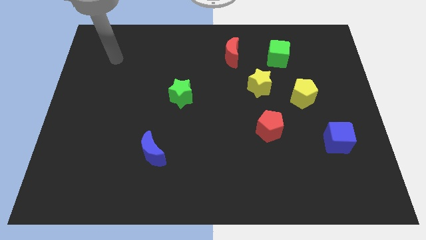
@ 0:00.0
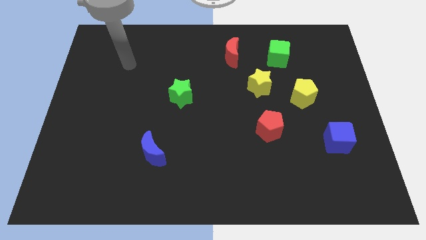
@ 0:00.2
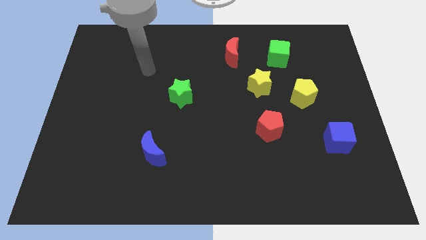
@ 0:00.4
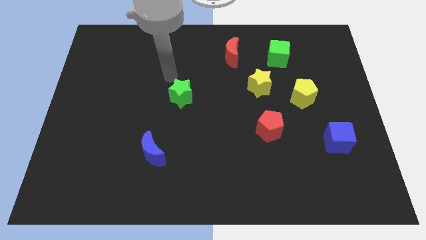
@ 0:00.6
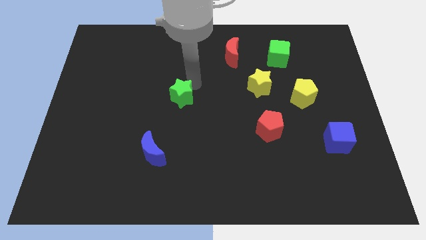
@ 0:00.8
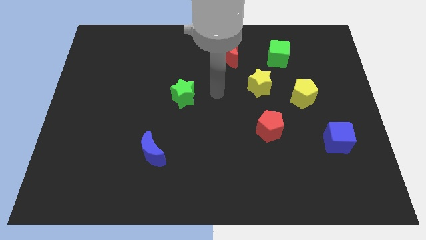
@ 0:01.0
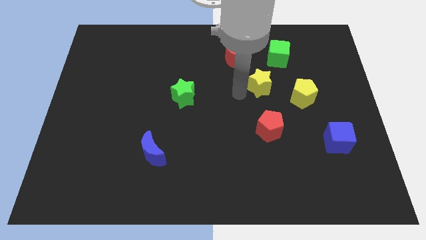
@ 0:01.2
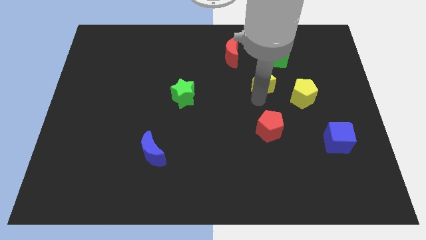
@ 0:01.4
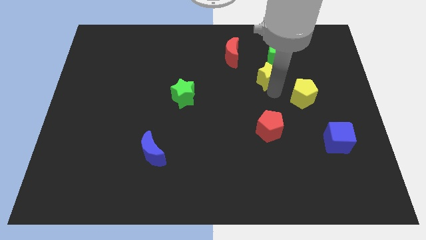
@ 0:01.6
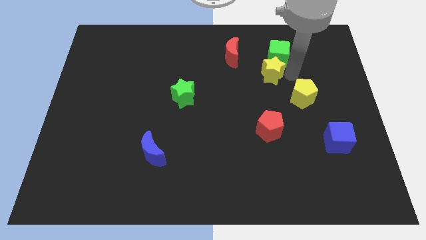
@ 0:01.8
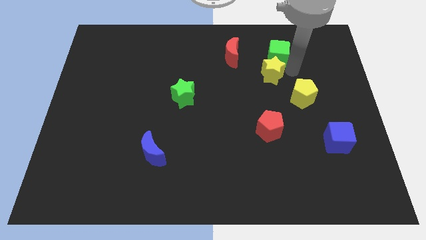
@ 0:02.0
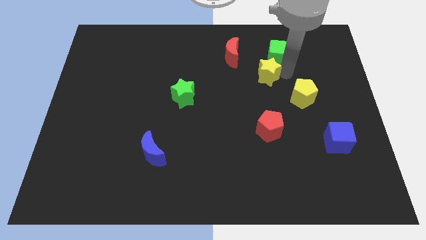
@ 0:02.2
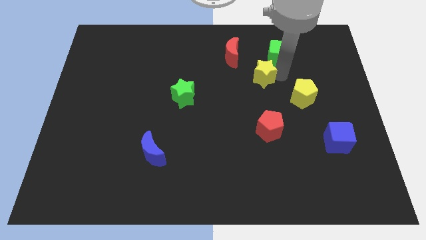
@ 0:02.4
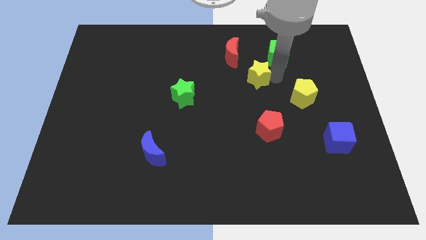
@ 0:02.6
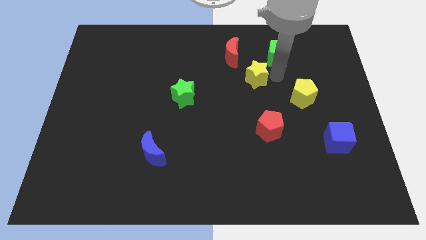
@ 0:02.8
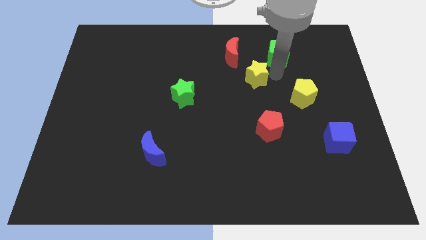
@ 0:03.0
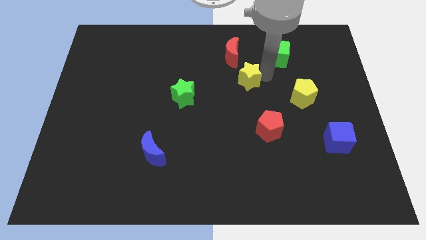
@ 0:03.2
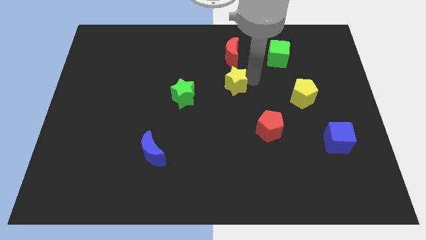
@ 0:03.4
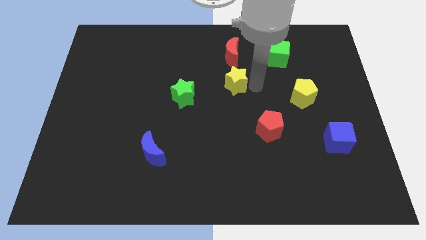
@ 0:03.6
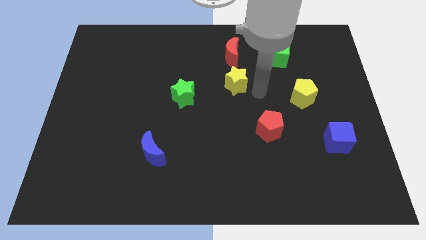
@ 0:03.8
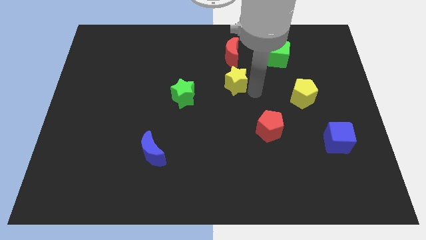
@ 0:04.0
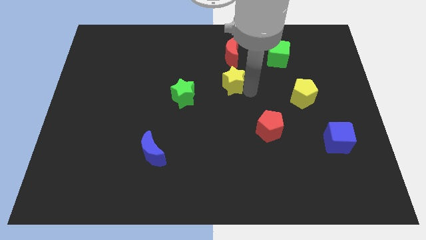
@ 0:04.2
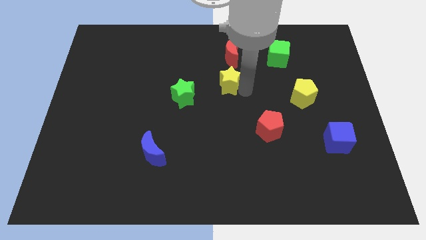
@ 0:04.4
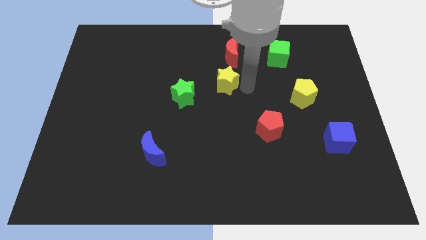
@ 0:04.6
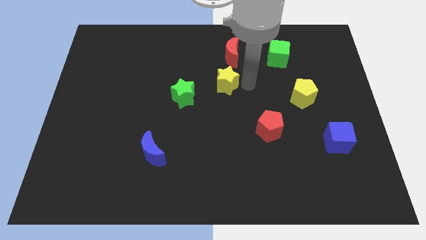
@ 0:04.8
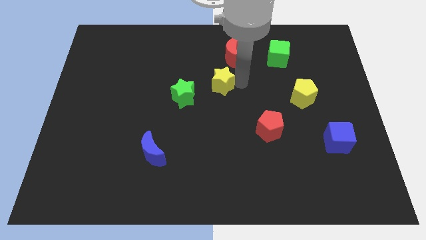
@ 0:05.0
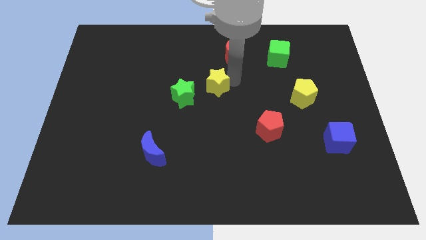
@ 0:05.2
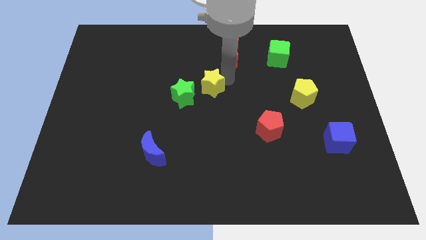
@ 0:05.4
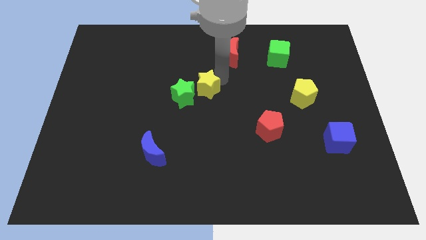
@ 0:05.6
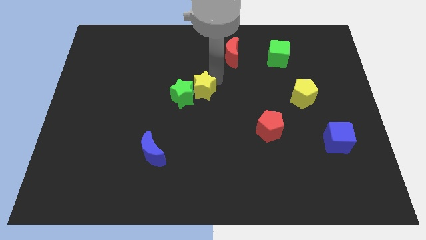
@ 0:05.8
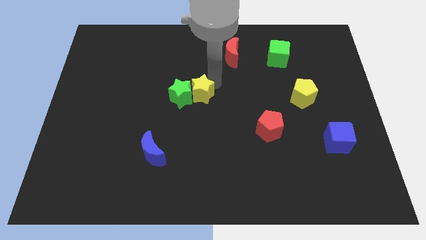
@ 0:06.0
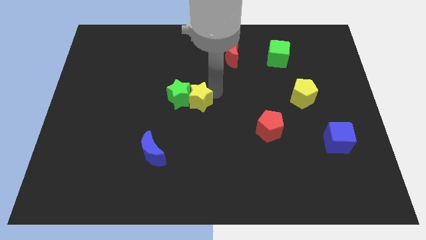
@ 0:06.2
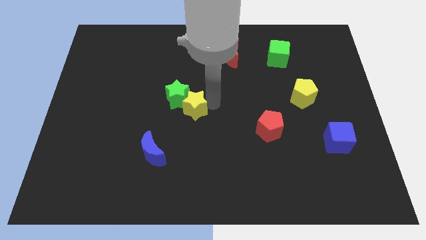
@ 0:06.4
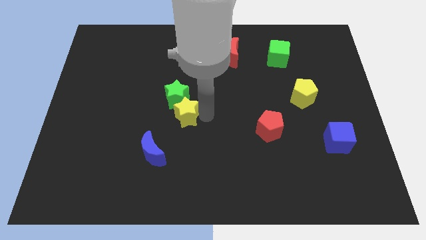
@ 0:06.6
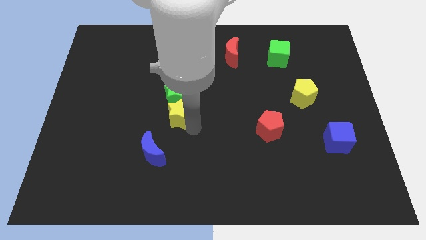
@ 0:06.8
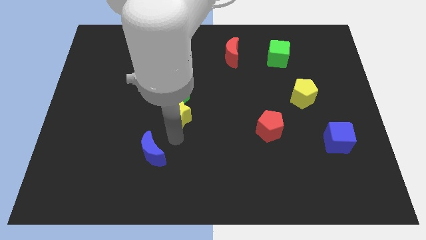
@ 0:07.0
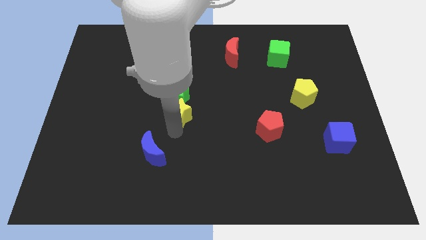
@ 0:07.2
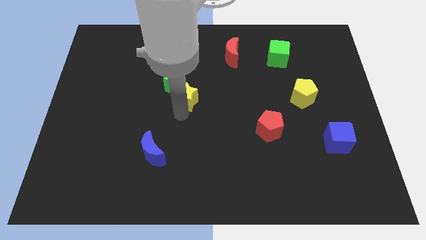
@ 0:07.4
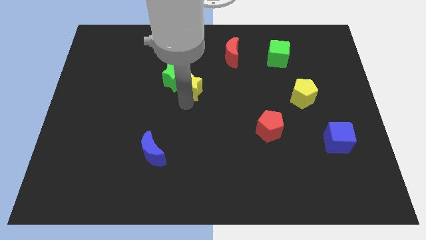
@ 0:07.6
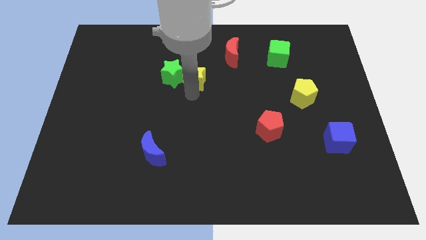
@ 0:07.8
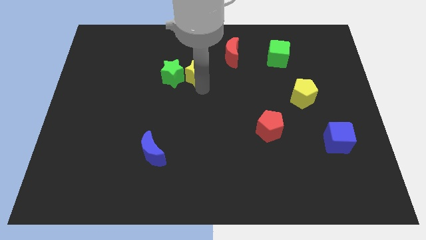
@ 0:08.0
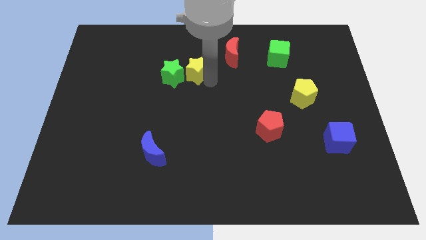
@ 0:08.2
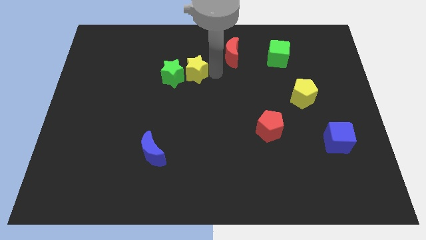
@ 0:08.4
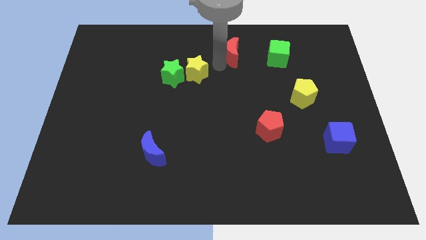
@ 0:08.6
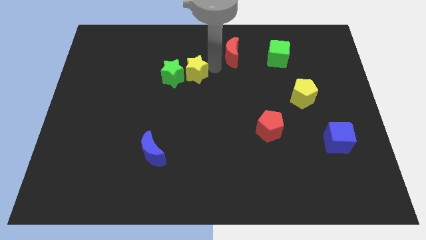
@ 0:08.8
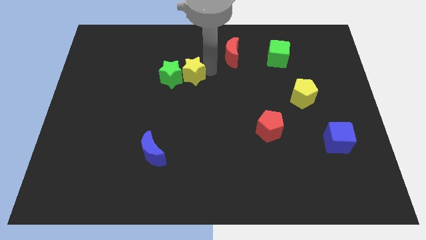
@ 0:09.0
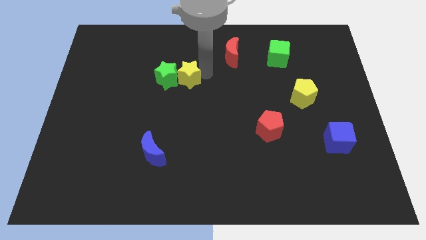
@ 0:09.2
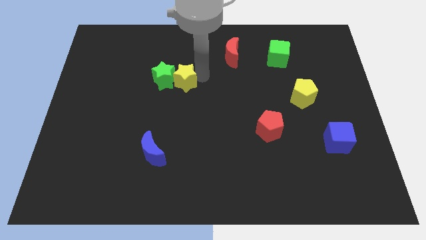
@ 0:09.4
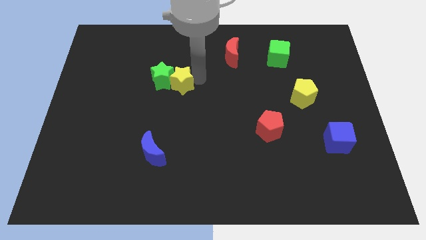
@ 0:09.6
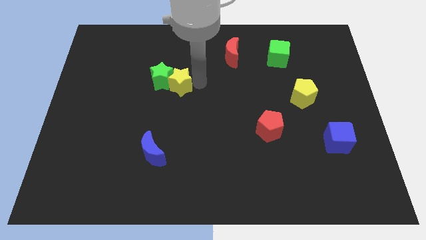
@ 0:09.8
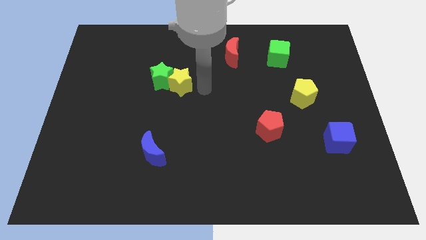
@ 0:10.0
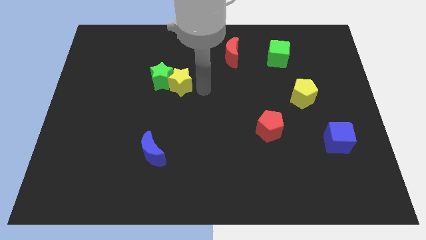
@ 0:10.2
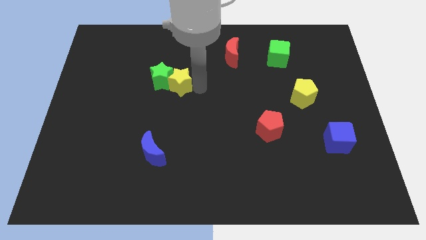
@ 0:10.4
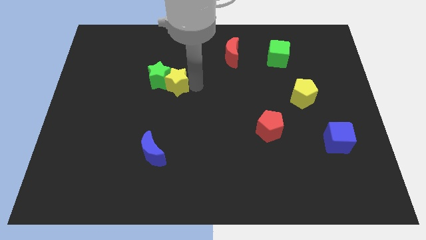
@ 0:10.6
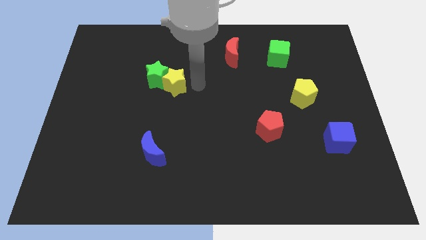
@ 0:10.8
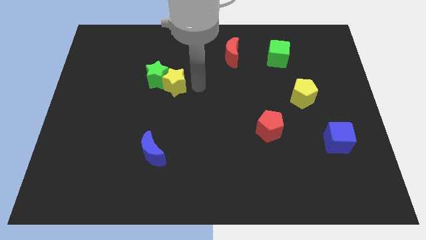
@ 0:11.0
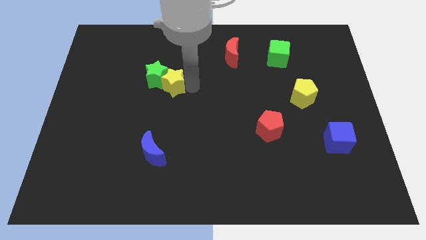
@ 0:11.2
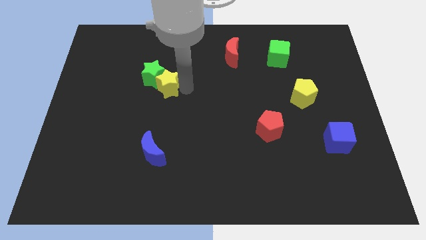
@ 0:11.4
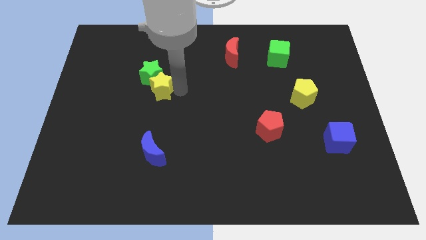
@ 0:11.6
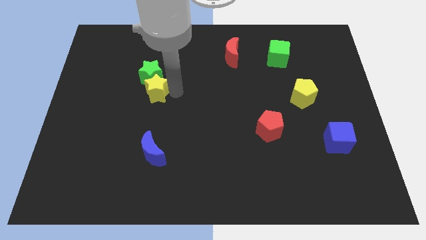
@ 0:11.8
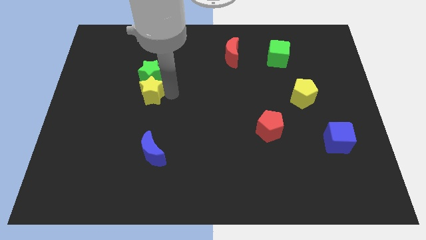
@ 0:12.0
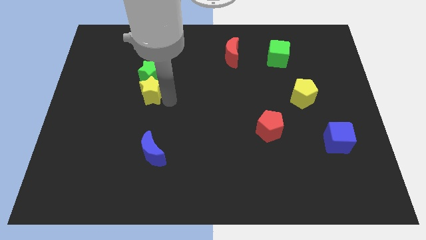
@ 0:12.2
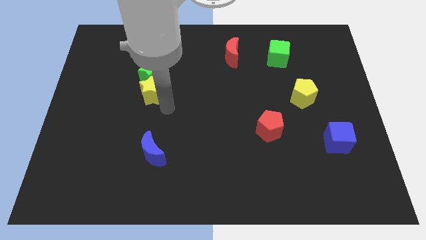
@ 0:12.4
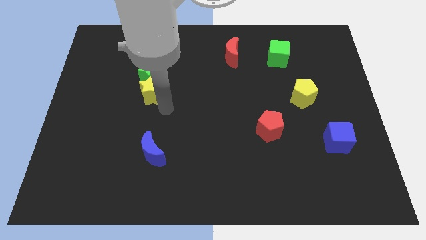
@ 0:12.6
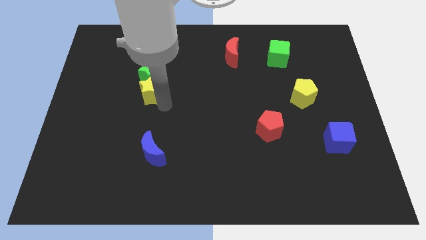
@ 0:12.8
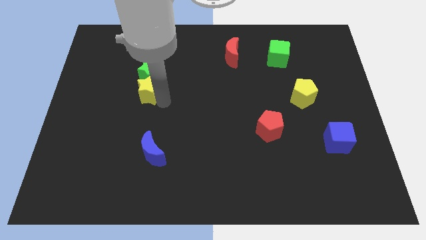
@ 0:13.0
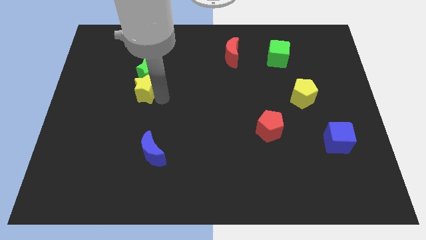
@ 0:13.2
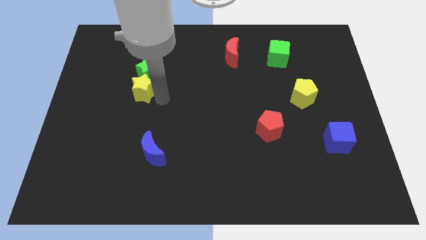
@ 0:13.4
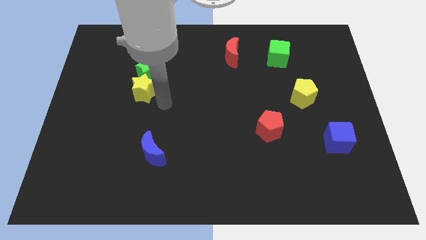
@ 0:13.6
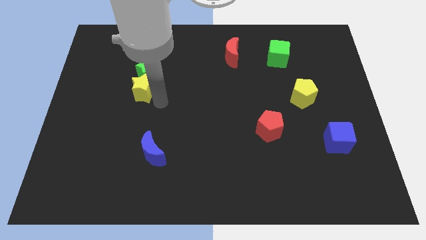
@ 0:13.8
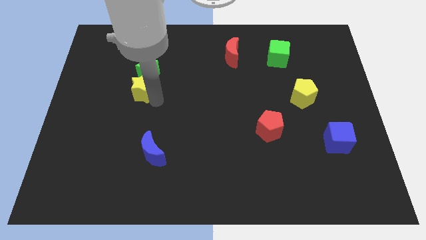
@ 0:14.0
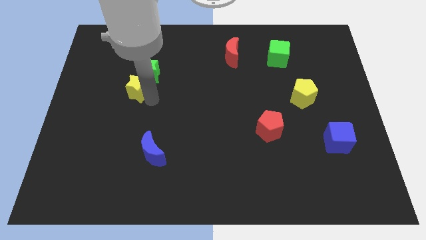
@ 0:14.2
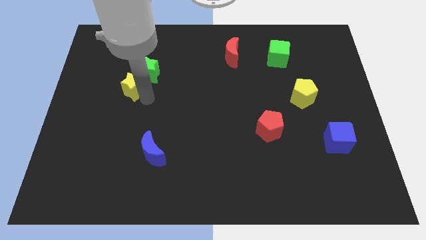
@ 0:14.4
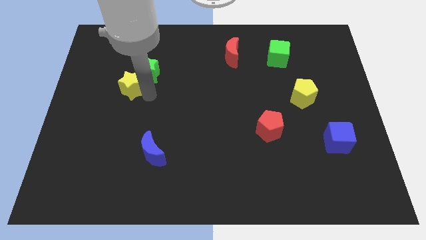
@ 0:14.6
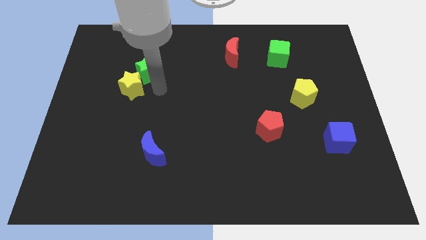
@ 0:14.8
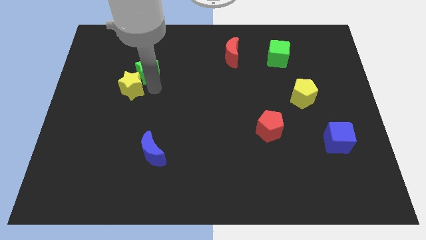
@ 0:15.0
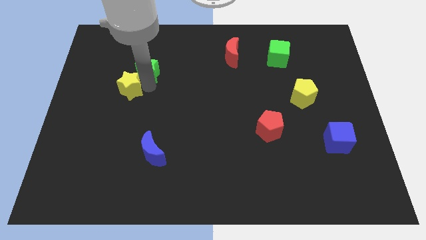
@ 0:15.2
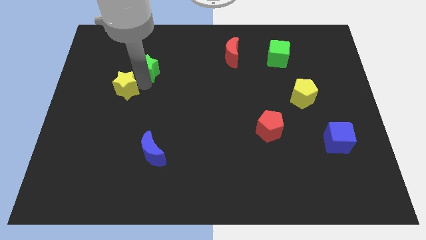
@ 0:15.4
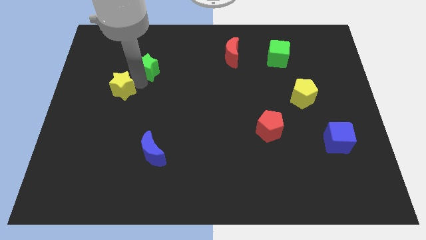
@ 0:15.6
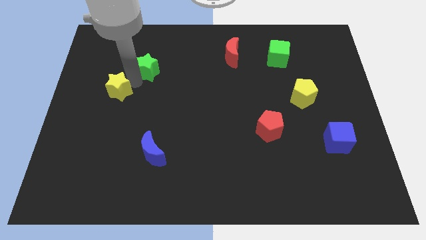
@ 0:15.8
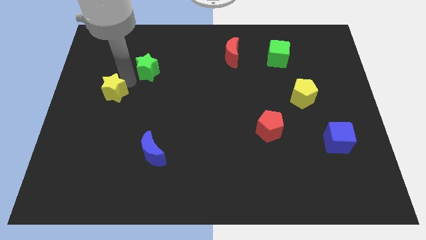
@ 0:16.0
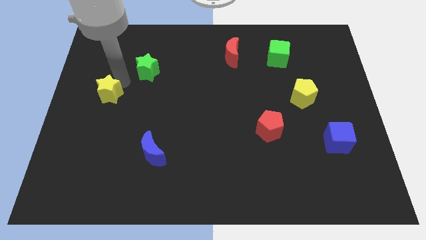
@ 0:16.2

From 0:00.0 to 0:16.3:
slide the yellow star to the left side of the board
